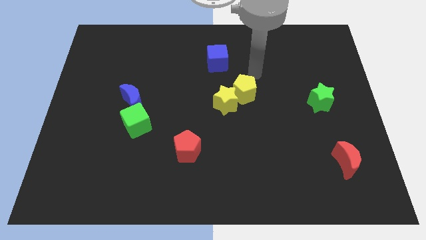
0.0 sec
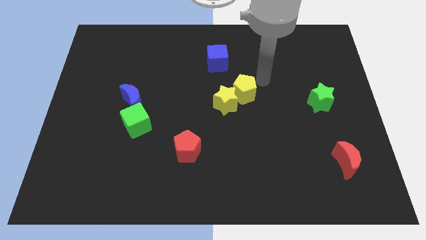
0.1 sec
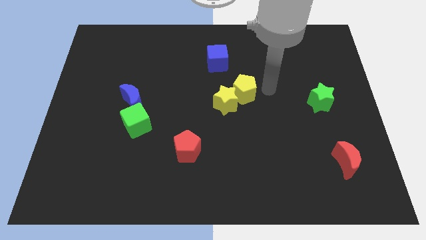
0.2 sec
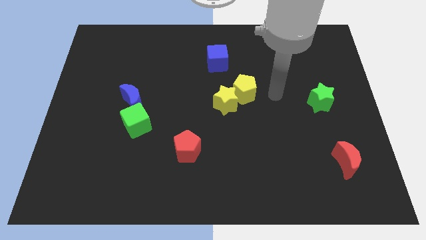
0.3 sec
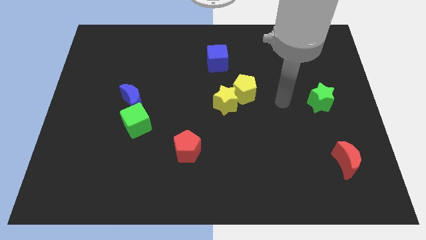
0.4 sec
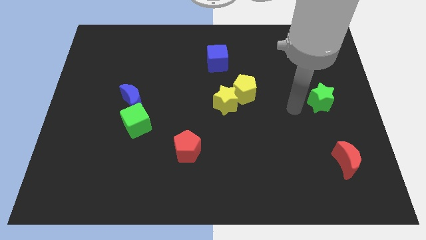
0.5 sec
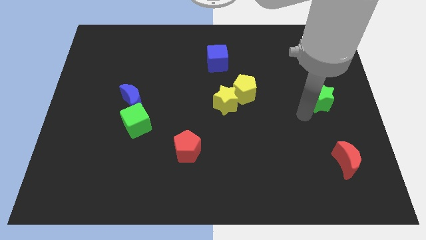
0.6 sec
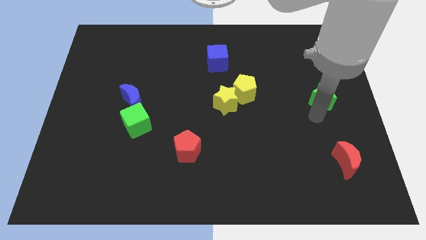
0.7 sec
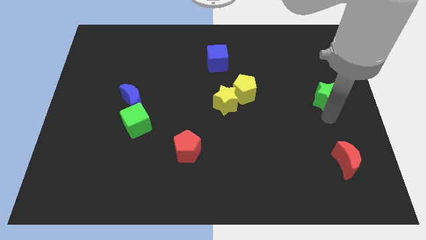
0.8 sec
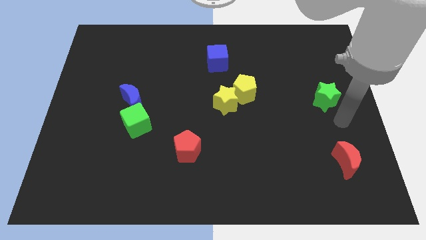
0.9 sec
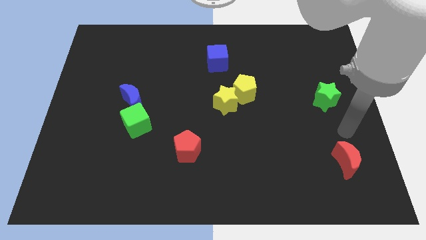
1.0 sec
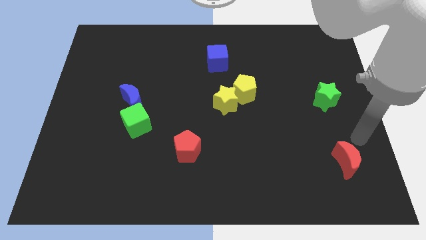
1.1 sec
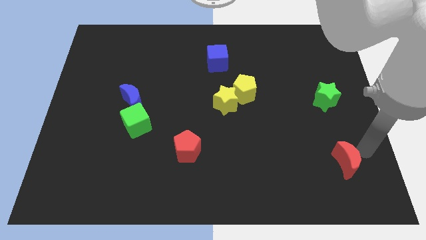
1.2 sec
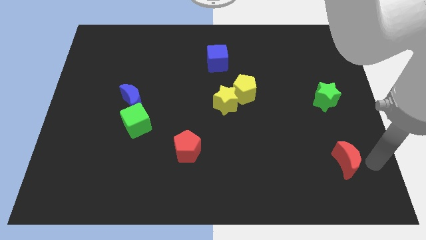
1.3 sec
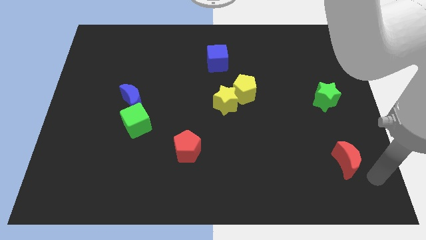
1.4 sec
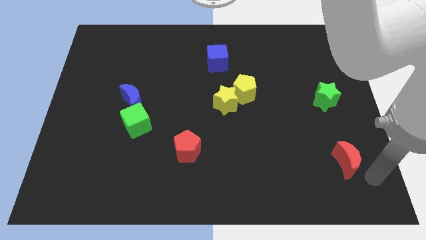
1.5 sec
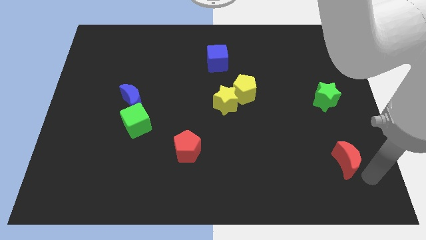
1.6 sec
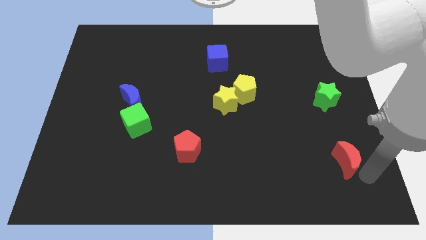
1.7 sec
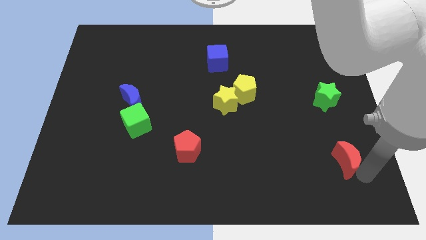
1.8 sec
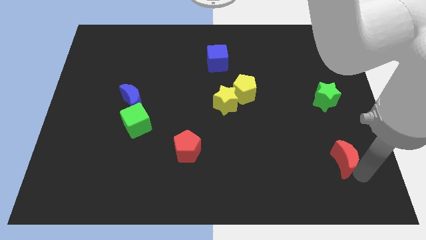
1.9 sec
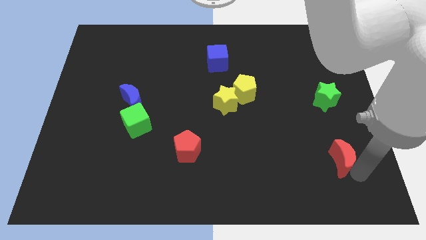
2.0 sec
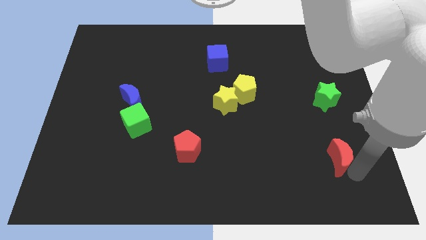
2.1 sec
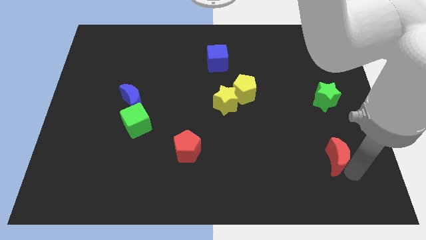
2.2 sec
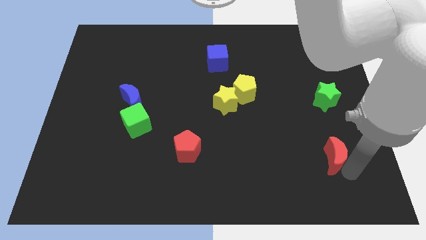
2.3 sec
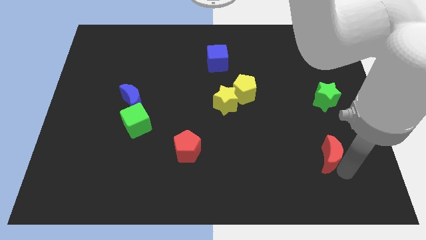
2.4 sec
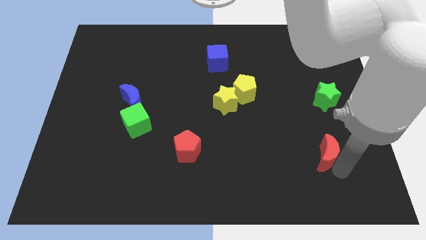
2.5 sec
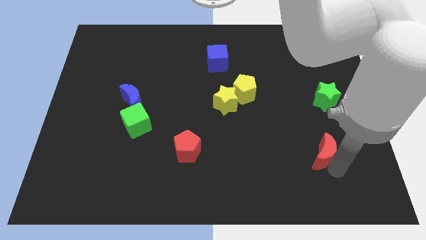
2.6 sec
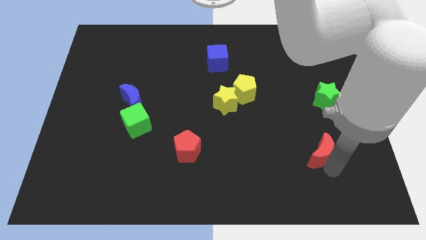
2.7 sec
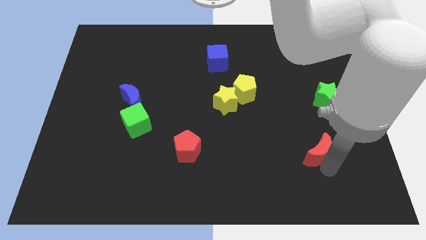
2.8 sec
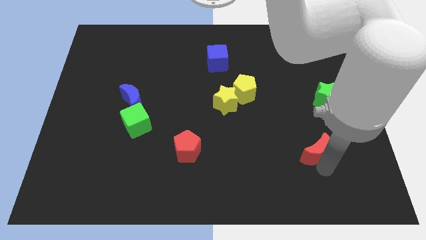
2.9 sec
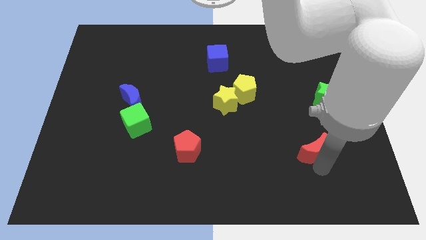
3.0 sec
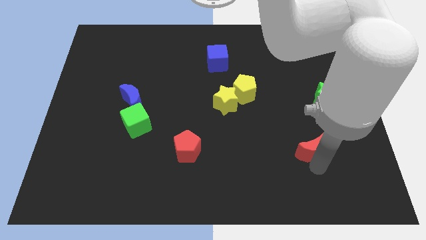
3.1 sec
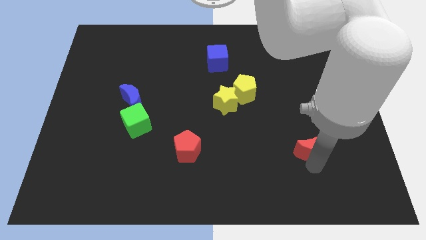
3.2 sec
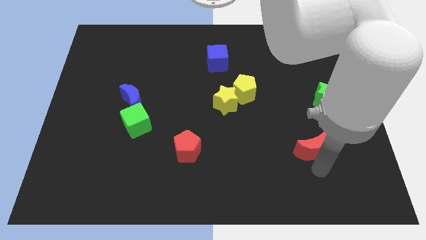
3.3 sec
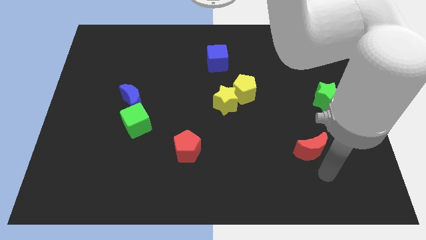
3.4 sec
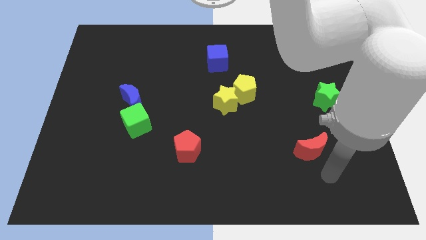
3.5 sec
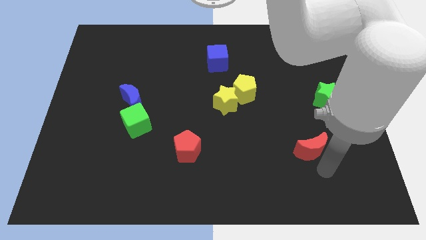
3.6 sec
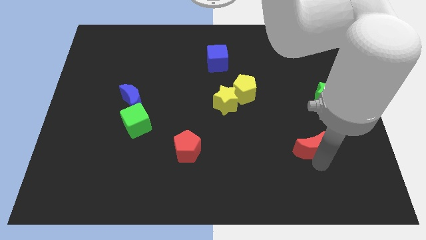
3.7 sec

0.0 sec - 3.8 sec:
push the red moon up and to the left diagonally a bit

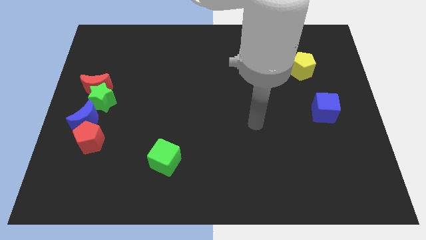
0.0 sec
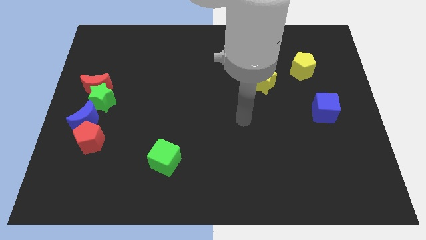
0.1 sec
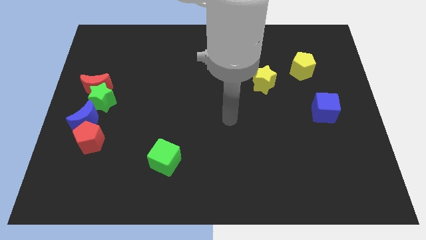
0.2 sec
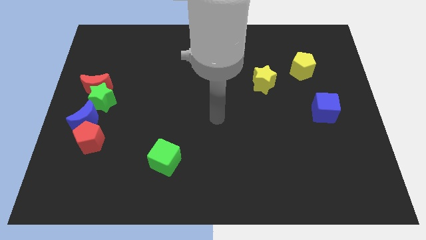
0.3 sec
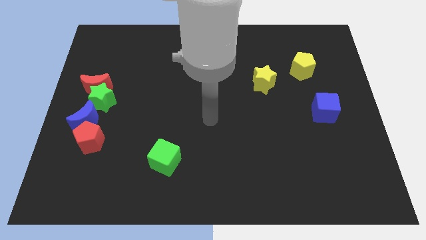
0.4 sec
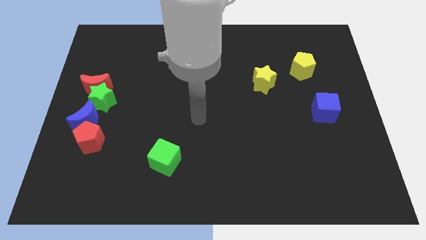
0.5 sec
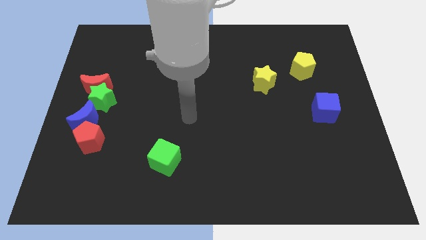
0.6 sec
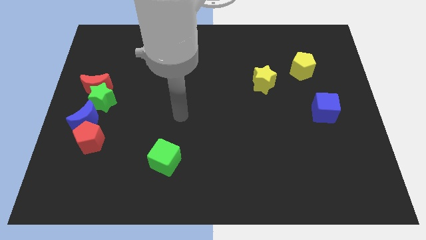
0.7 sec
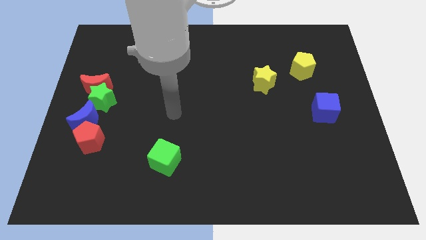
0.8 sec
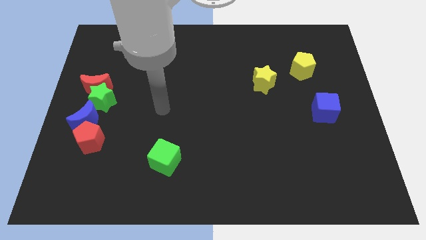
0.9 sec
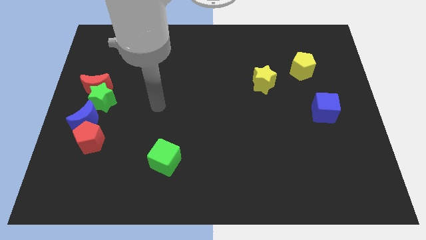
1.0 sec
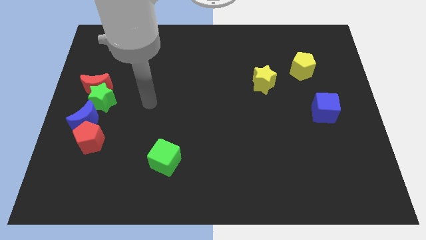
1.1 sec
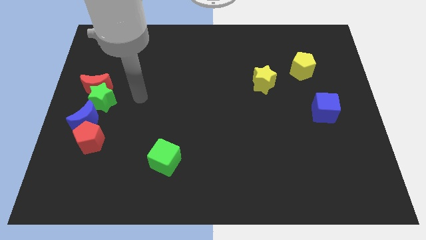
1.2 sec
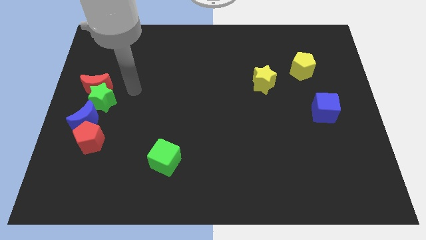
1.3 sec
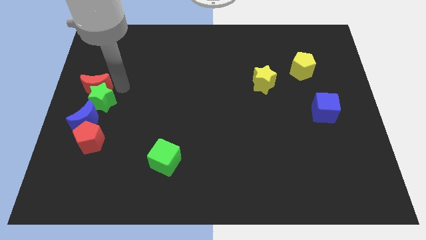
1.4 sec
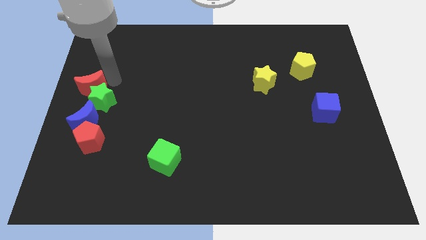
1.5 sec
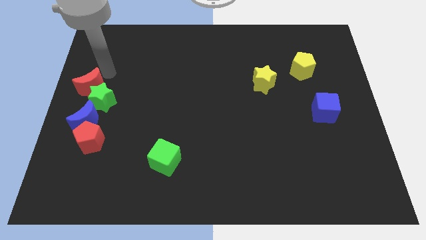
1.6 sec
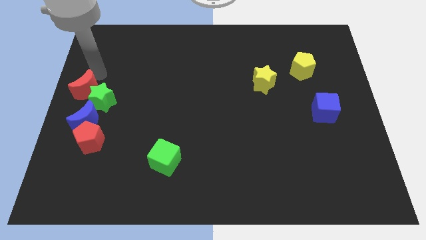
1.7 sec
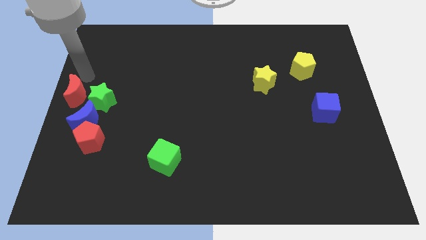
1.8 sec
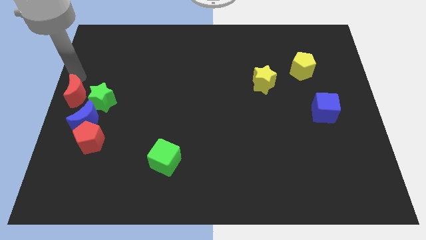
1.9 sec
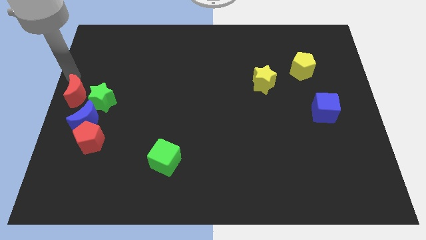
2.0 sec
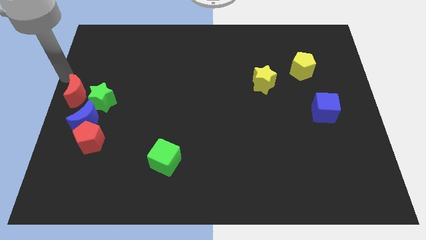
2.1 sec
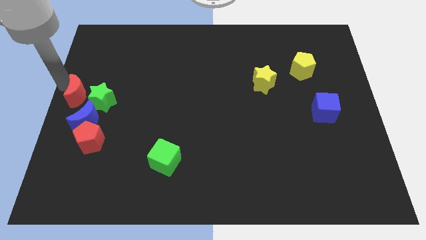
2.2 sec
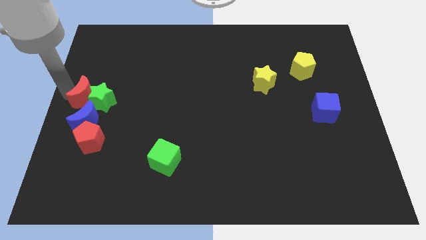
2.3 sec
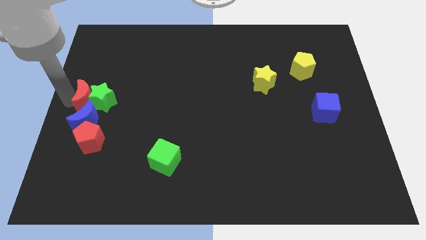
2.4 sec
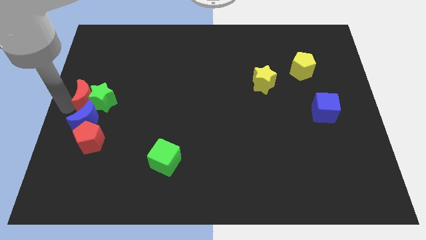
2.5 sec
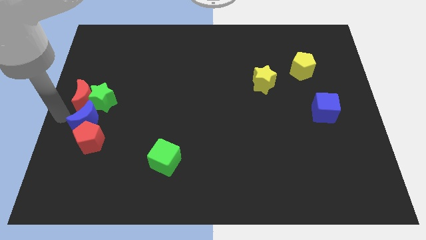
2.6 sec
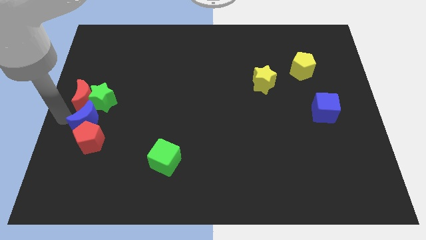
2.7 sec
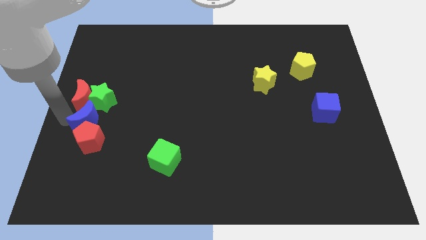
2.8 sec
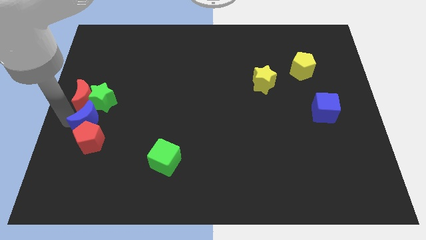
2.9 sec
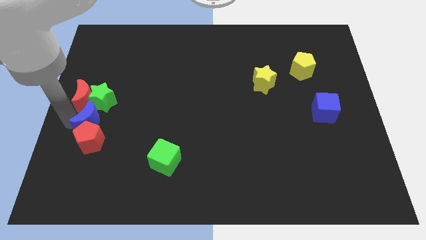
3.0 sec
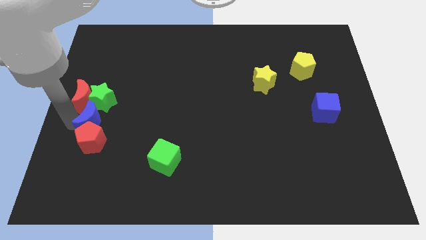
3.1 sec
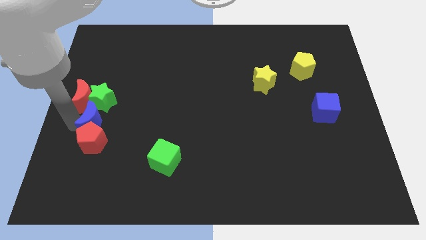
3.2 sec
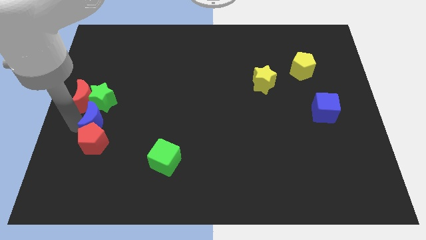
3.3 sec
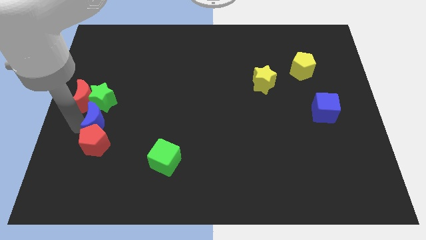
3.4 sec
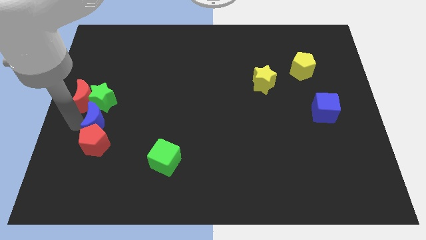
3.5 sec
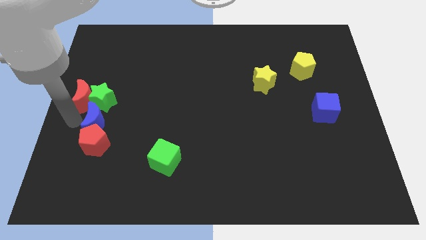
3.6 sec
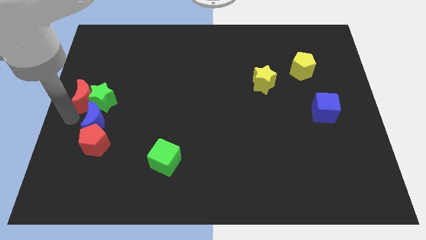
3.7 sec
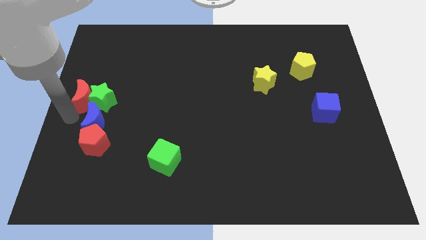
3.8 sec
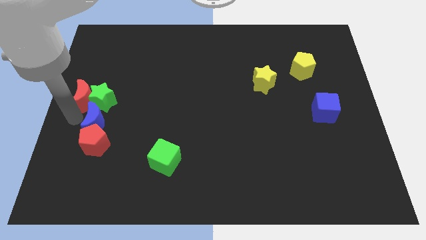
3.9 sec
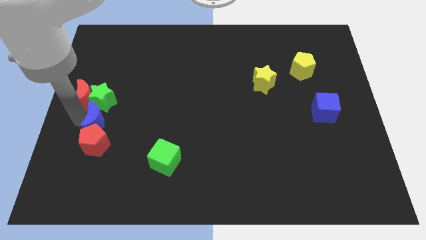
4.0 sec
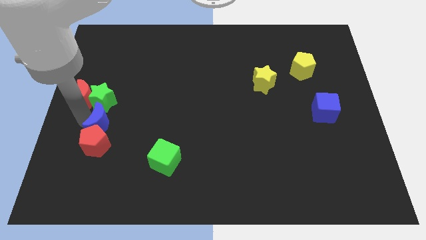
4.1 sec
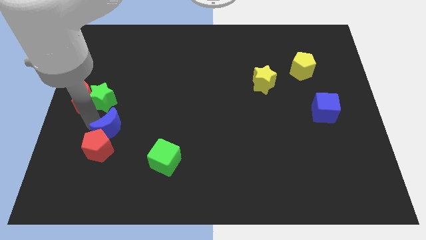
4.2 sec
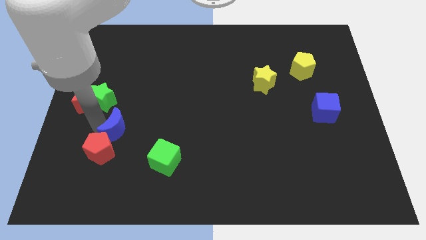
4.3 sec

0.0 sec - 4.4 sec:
slide the blue moon slightly right
